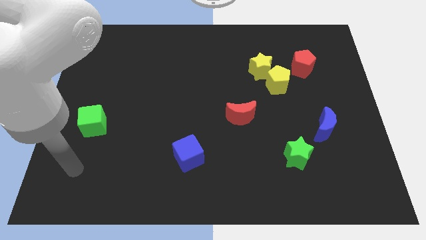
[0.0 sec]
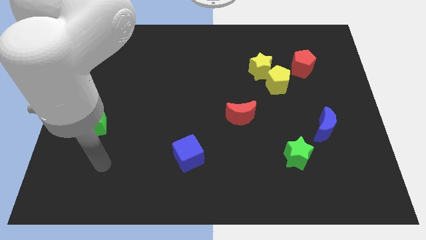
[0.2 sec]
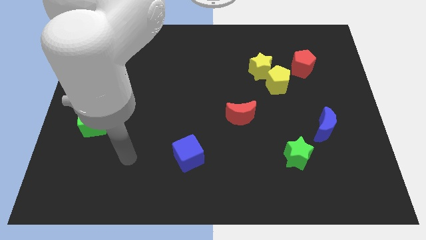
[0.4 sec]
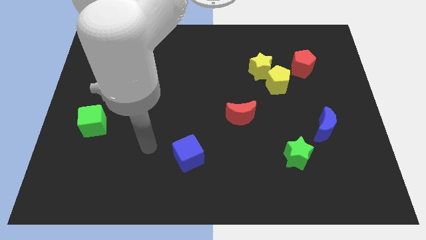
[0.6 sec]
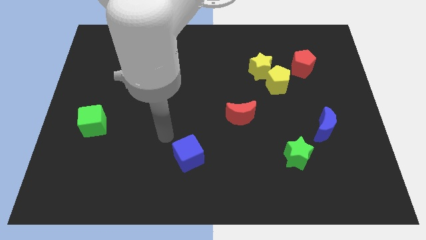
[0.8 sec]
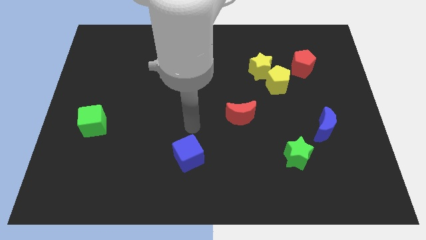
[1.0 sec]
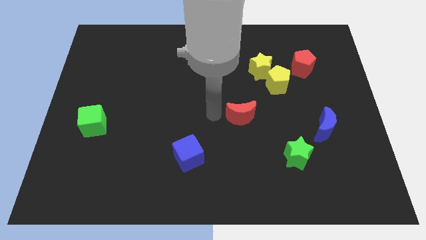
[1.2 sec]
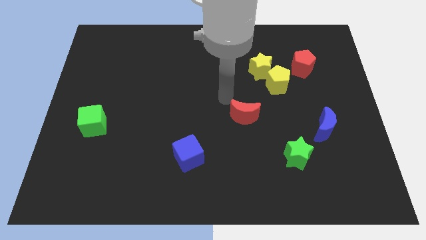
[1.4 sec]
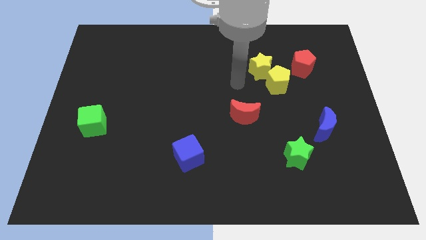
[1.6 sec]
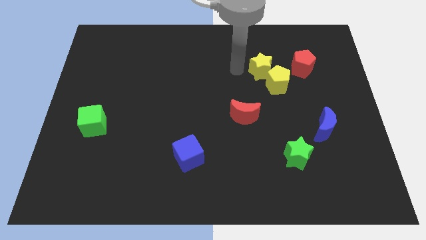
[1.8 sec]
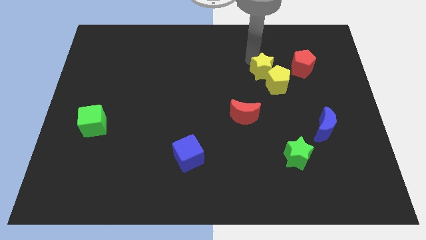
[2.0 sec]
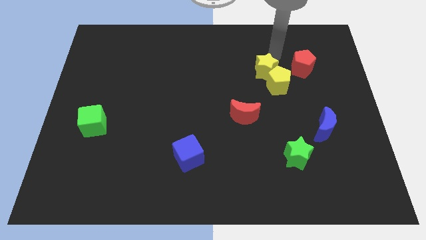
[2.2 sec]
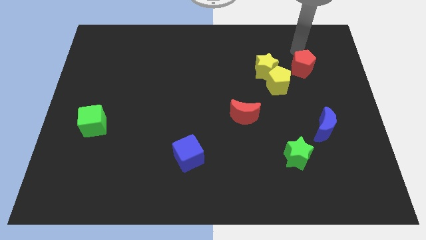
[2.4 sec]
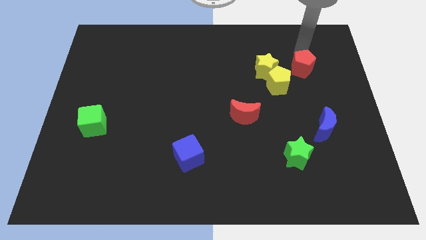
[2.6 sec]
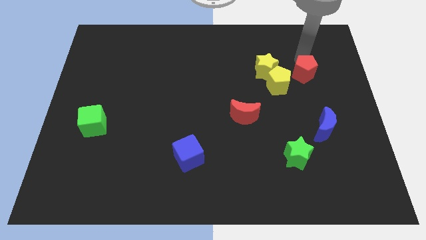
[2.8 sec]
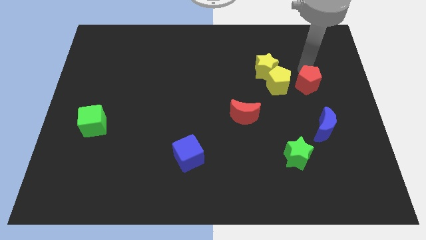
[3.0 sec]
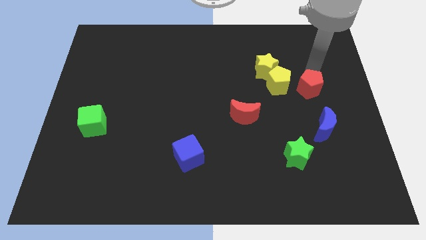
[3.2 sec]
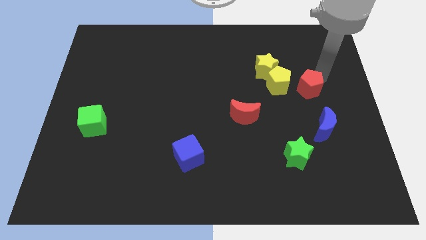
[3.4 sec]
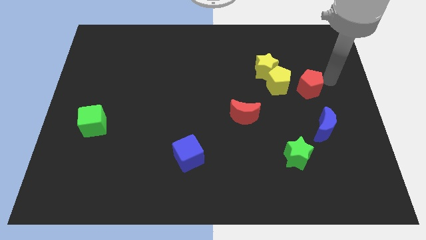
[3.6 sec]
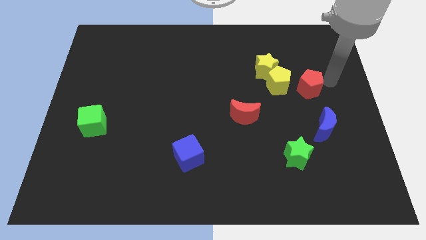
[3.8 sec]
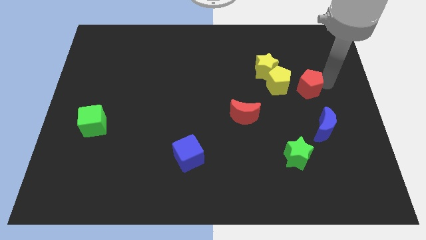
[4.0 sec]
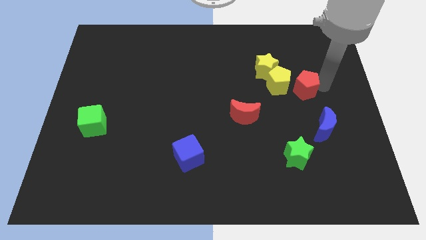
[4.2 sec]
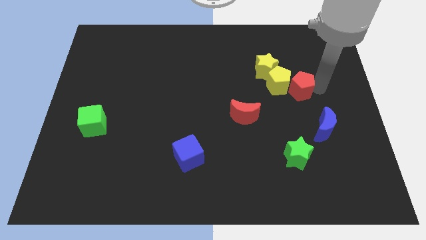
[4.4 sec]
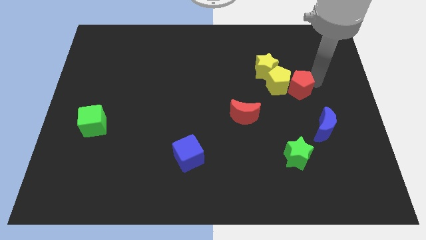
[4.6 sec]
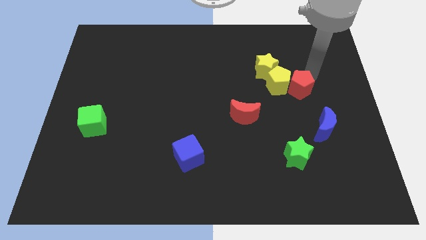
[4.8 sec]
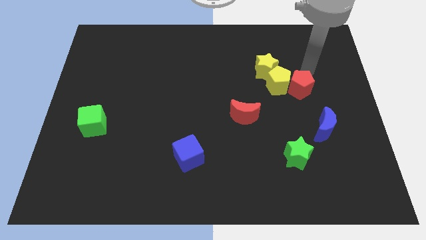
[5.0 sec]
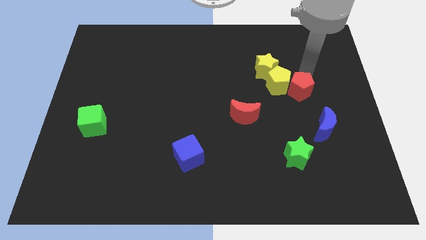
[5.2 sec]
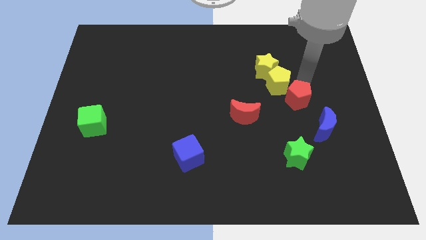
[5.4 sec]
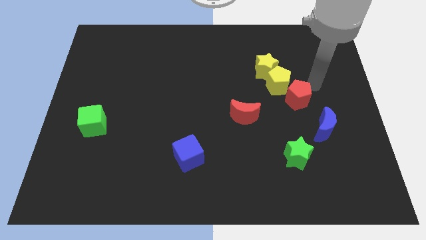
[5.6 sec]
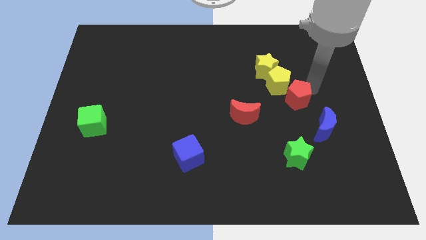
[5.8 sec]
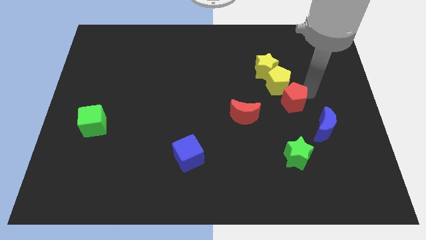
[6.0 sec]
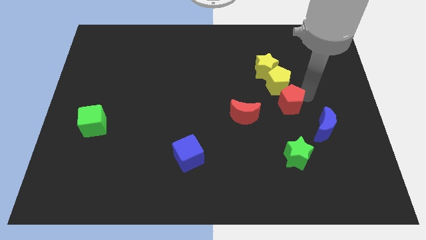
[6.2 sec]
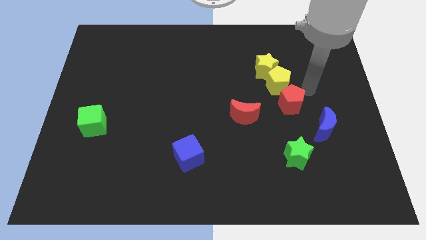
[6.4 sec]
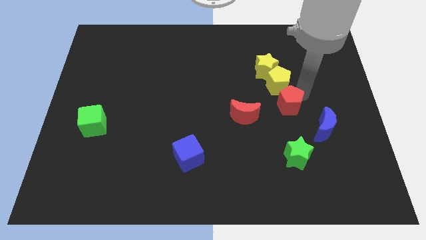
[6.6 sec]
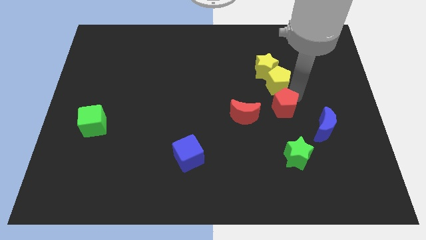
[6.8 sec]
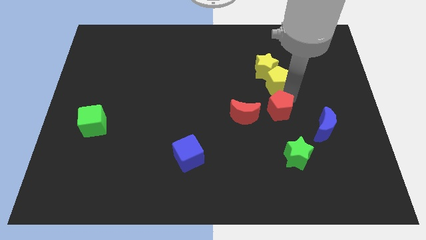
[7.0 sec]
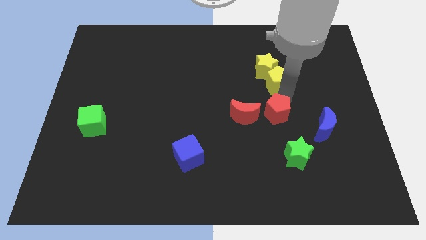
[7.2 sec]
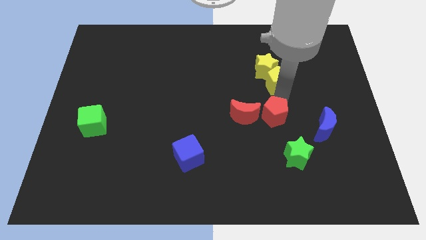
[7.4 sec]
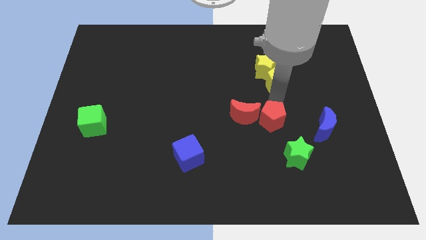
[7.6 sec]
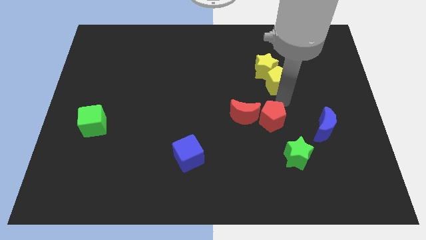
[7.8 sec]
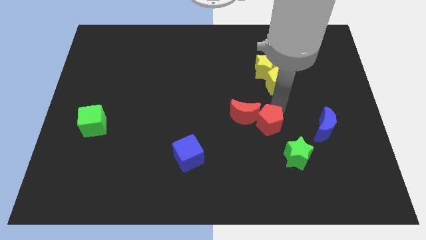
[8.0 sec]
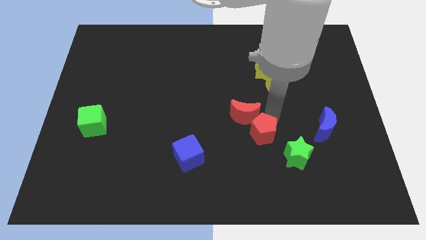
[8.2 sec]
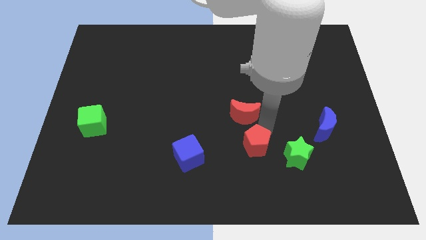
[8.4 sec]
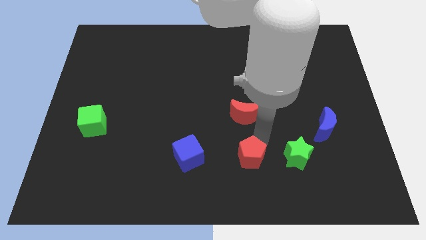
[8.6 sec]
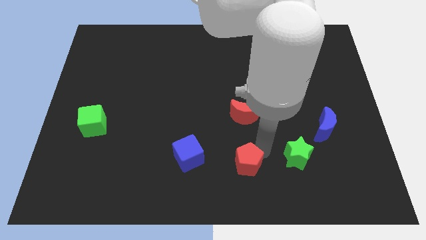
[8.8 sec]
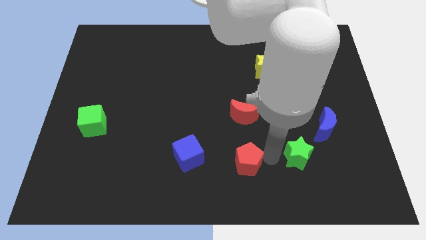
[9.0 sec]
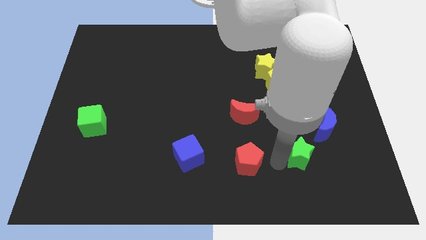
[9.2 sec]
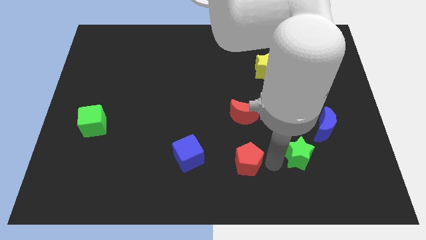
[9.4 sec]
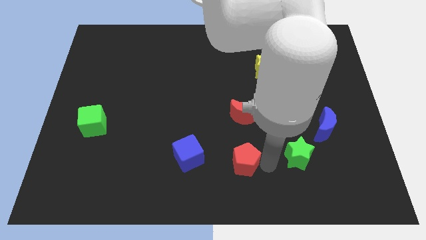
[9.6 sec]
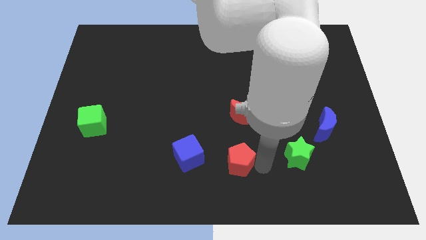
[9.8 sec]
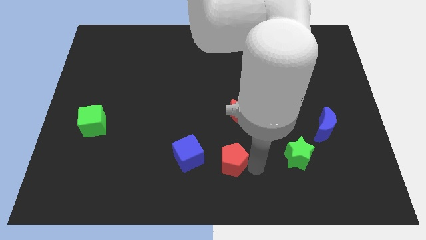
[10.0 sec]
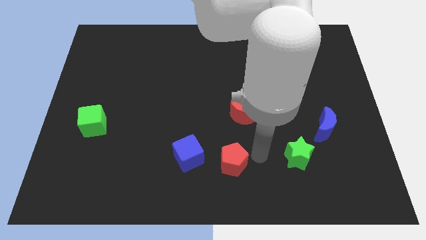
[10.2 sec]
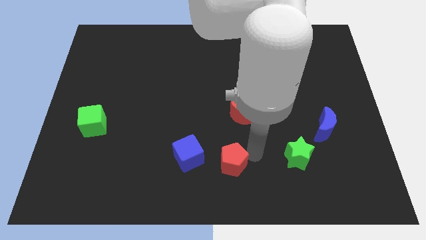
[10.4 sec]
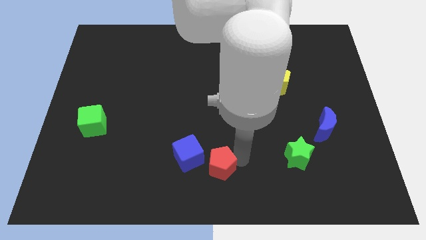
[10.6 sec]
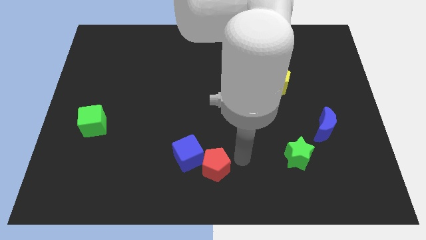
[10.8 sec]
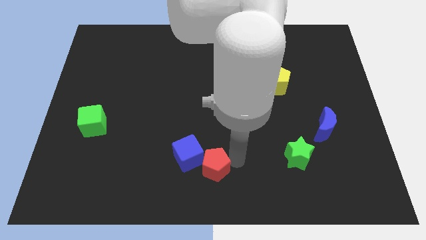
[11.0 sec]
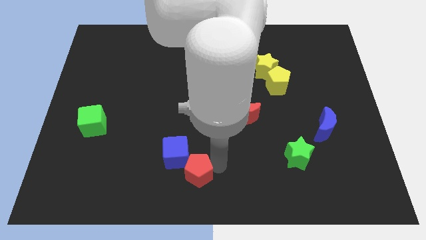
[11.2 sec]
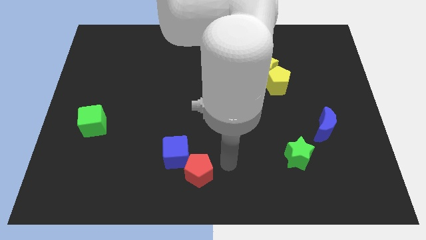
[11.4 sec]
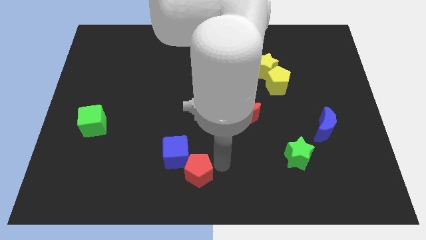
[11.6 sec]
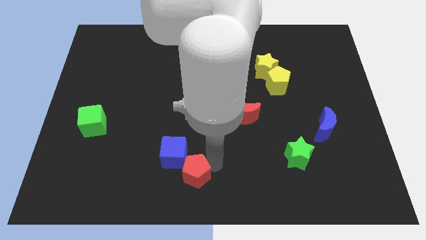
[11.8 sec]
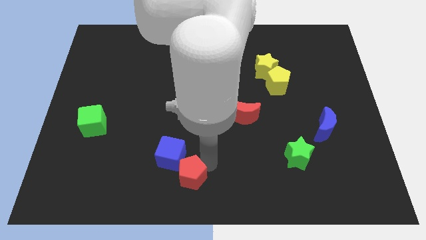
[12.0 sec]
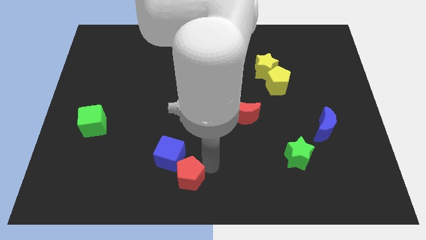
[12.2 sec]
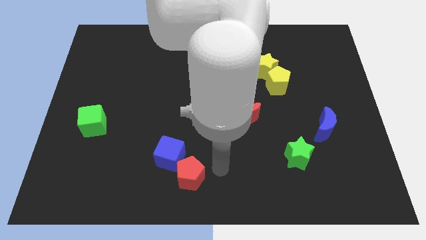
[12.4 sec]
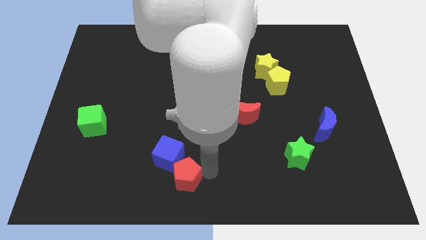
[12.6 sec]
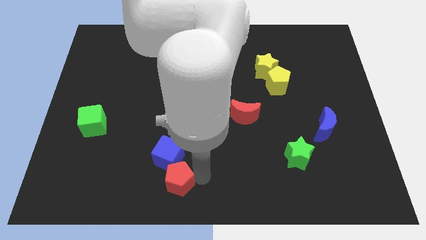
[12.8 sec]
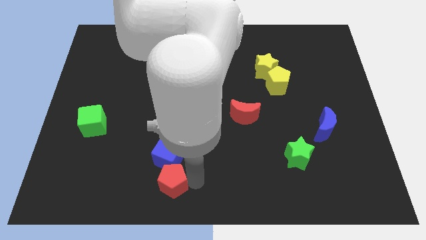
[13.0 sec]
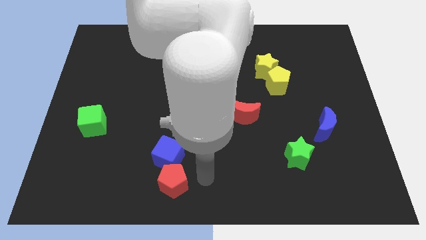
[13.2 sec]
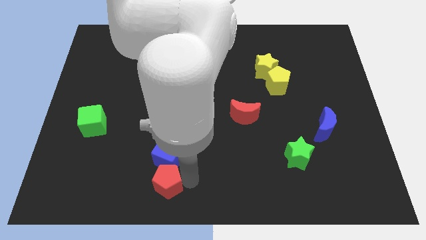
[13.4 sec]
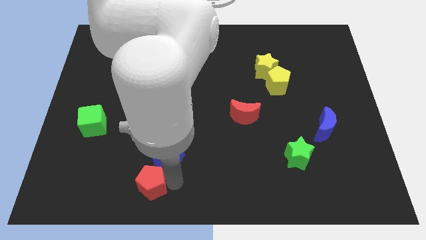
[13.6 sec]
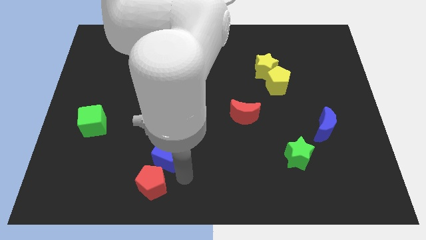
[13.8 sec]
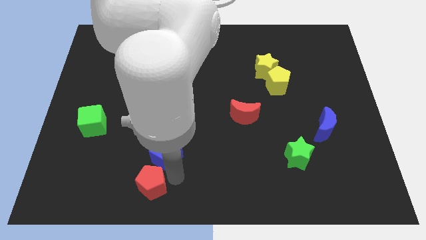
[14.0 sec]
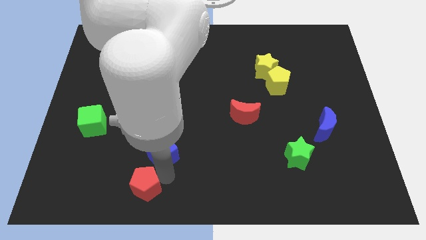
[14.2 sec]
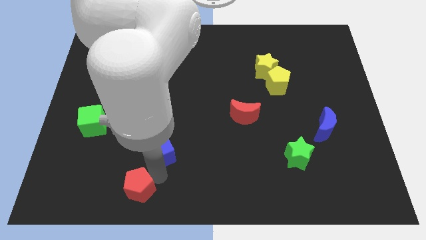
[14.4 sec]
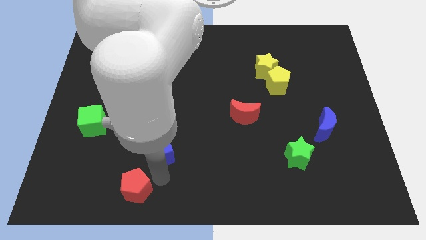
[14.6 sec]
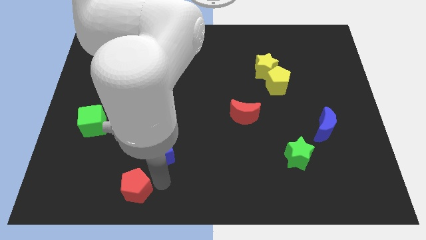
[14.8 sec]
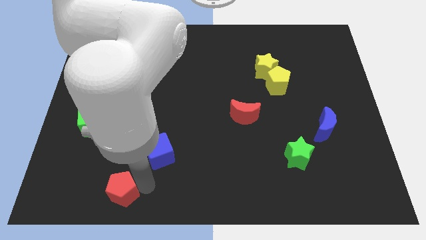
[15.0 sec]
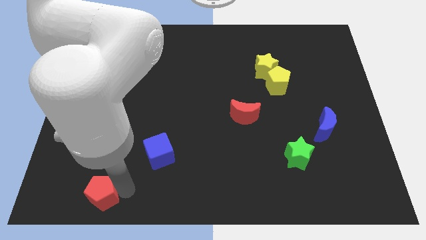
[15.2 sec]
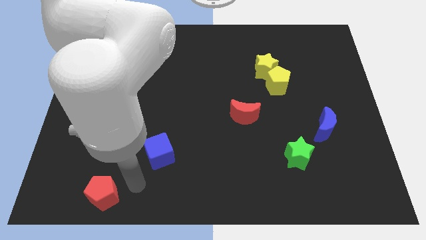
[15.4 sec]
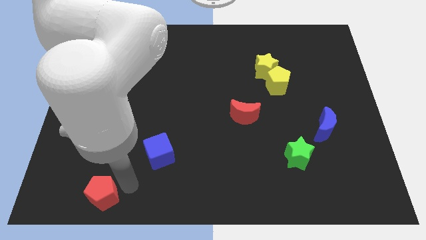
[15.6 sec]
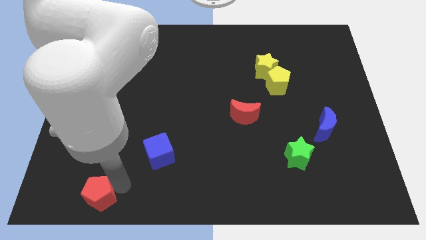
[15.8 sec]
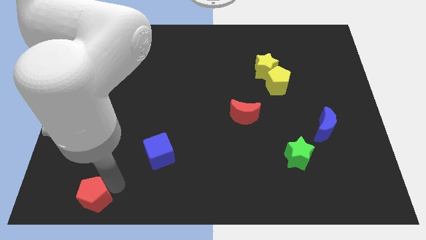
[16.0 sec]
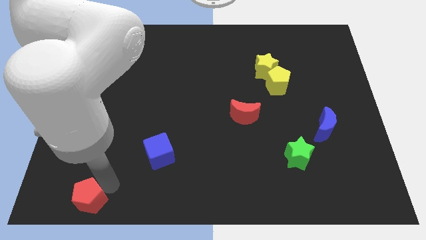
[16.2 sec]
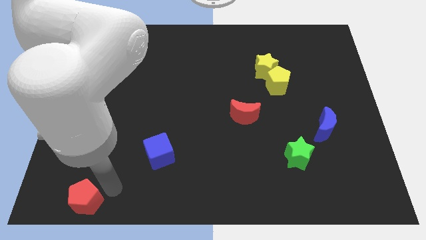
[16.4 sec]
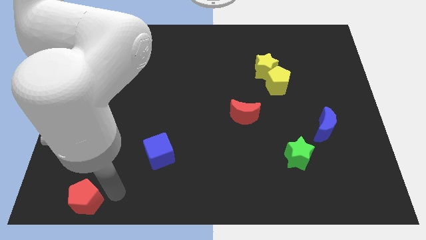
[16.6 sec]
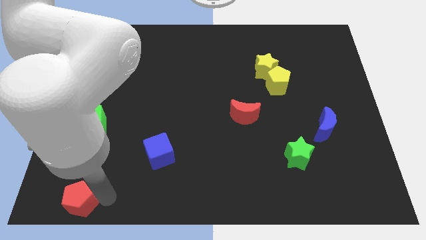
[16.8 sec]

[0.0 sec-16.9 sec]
move the red pentagon to the bottom left
